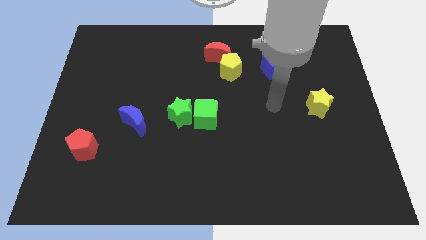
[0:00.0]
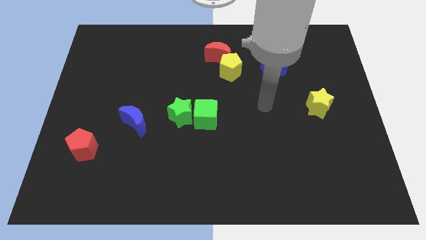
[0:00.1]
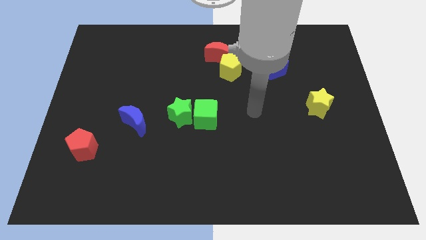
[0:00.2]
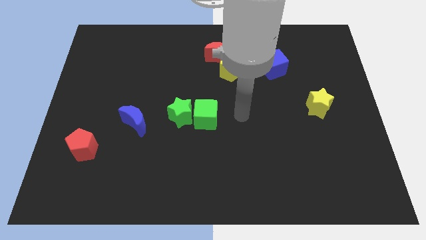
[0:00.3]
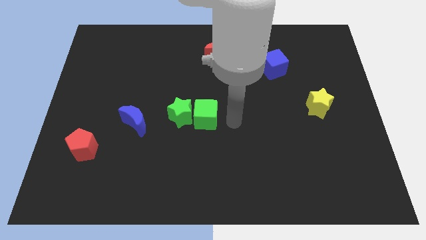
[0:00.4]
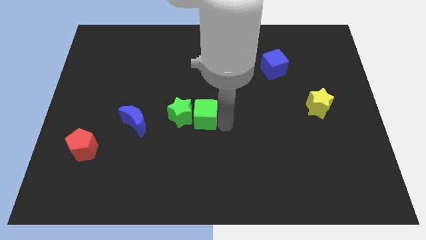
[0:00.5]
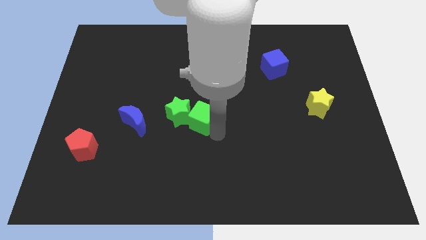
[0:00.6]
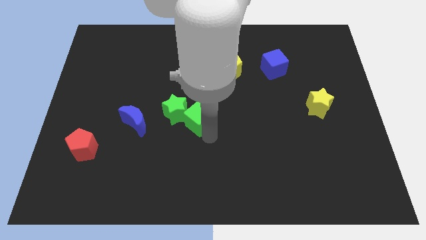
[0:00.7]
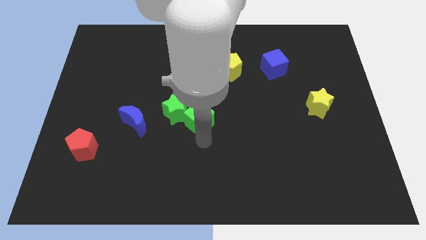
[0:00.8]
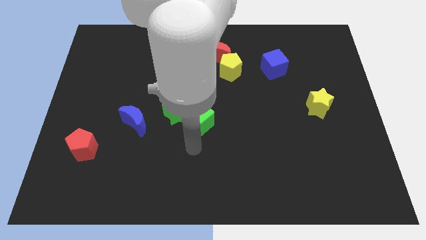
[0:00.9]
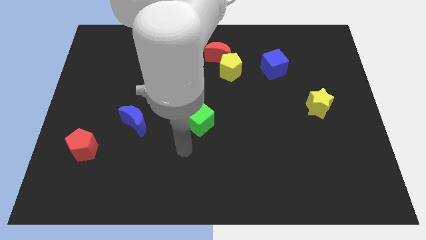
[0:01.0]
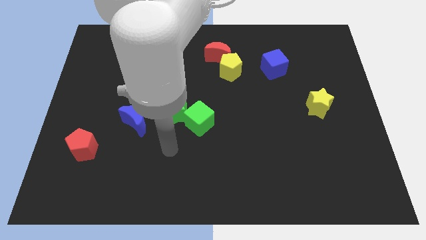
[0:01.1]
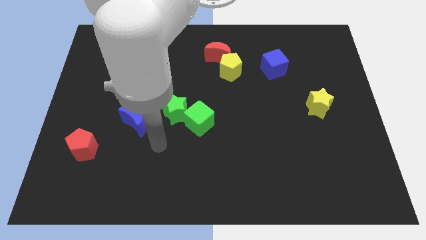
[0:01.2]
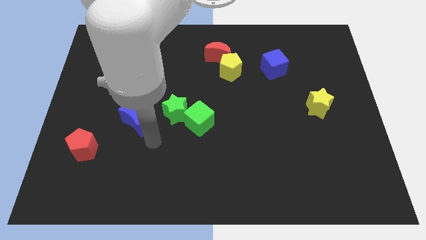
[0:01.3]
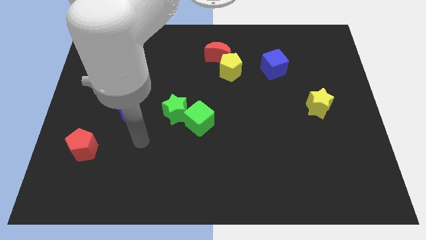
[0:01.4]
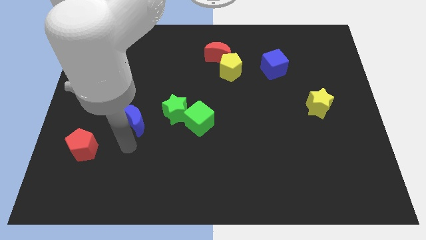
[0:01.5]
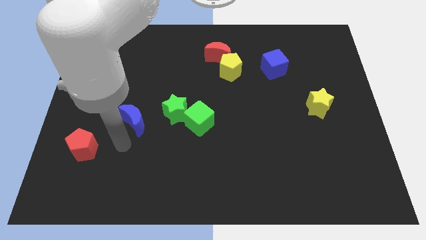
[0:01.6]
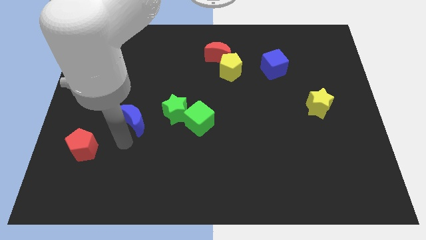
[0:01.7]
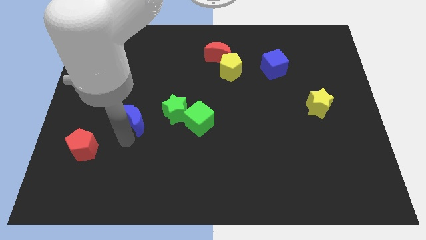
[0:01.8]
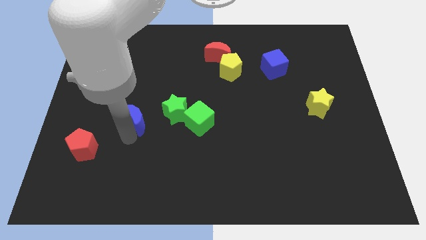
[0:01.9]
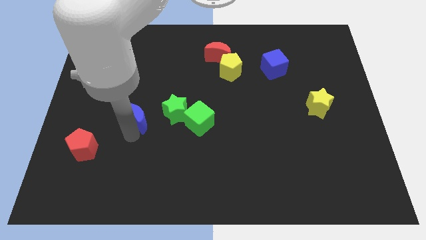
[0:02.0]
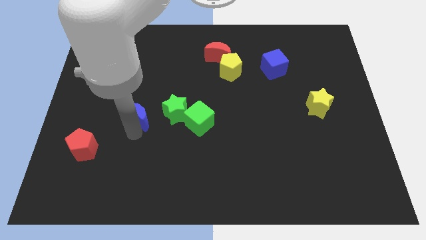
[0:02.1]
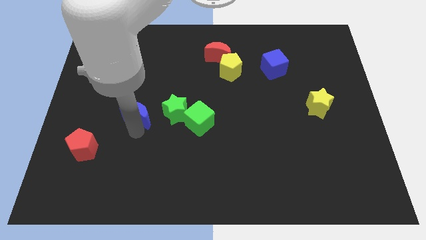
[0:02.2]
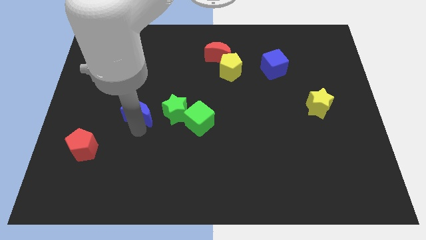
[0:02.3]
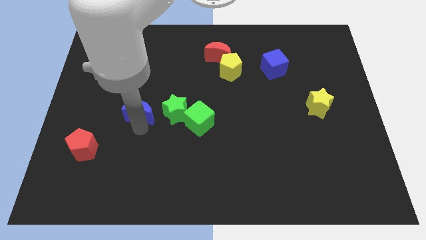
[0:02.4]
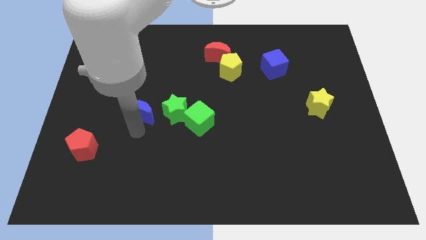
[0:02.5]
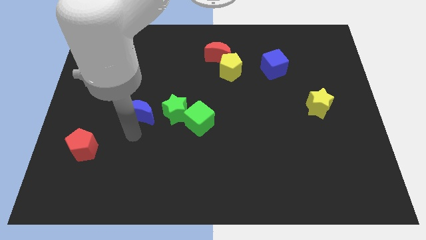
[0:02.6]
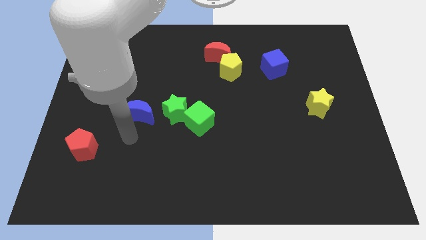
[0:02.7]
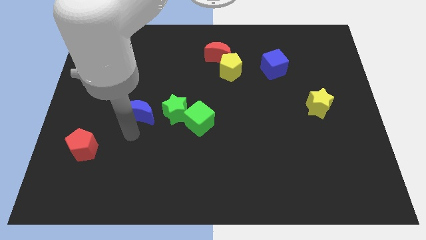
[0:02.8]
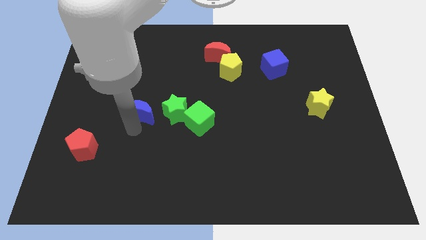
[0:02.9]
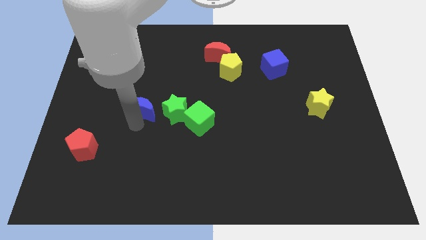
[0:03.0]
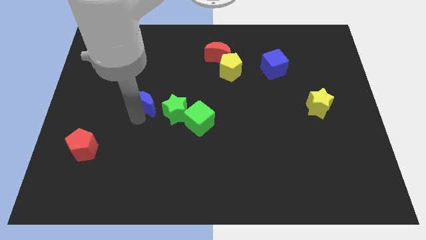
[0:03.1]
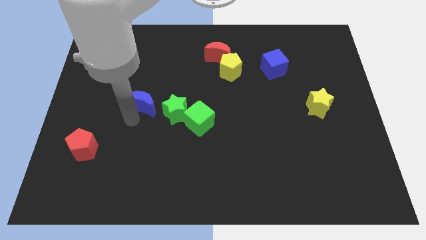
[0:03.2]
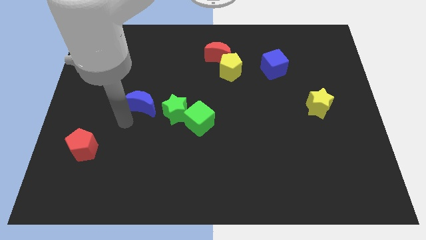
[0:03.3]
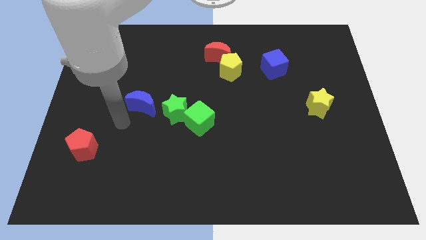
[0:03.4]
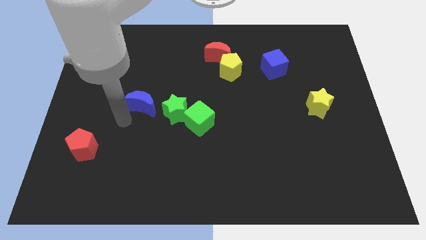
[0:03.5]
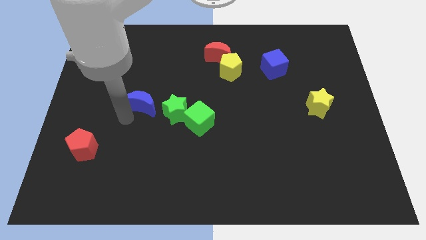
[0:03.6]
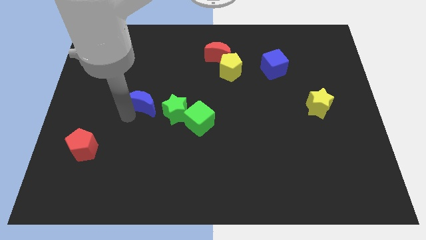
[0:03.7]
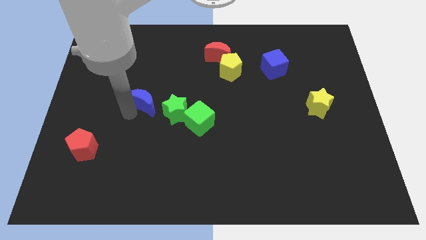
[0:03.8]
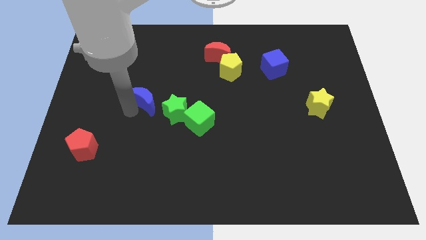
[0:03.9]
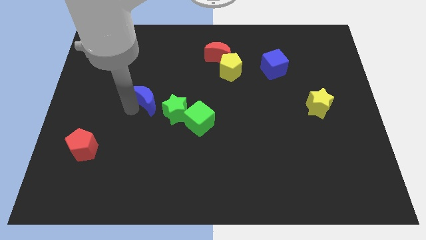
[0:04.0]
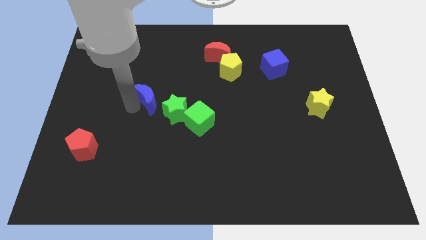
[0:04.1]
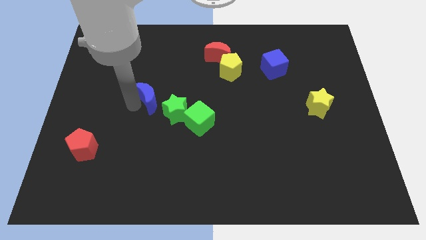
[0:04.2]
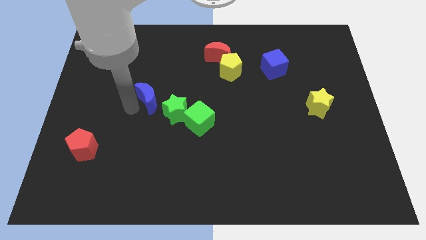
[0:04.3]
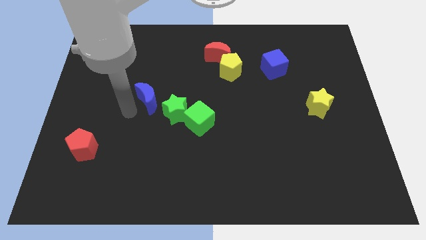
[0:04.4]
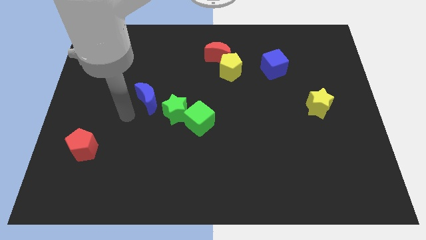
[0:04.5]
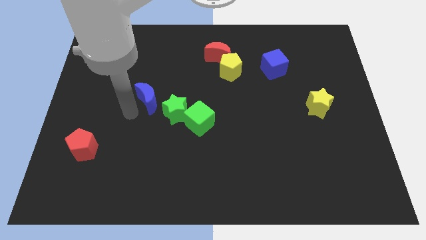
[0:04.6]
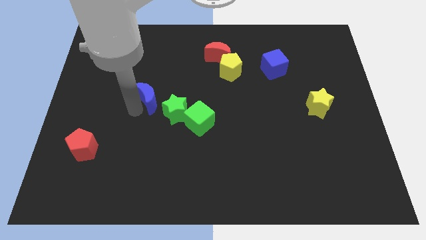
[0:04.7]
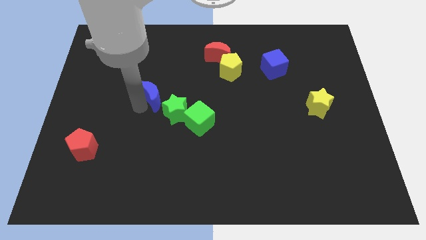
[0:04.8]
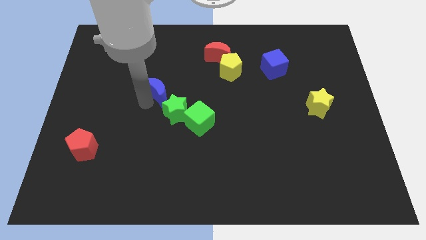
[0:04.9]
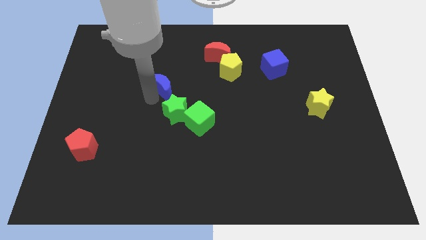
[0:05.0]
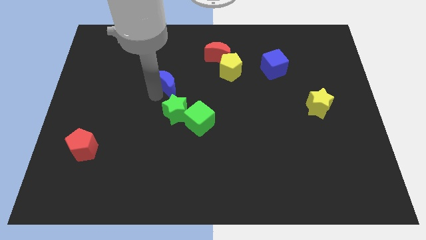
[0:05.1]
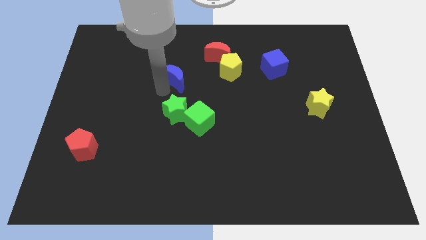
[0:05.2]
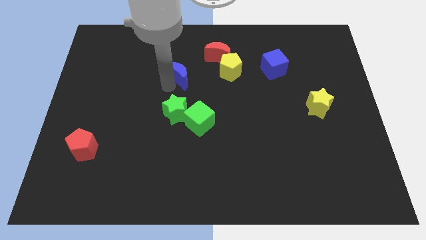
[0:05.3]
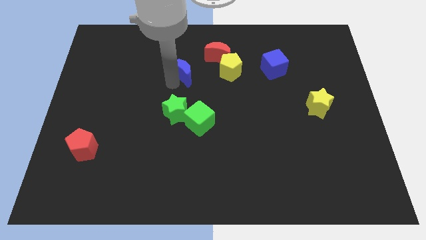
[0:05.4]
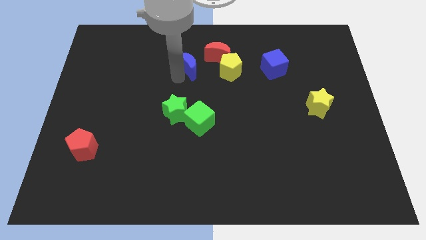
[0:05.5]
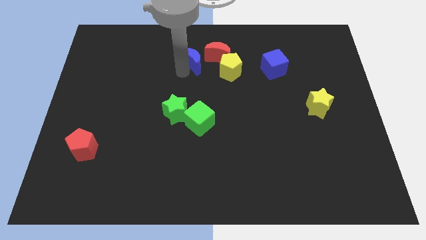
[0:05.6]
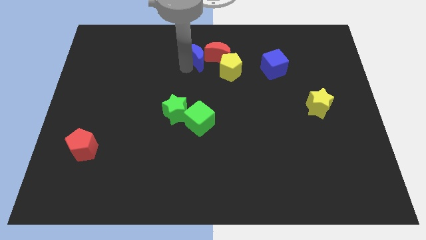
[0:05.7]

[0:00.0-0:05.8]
slide the blue moon close to the red moon

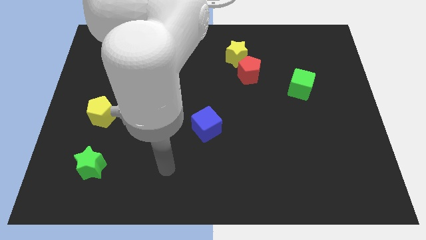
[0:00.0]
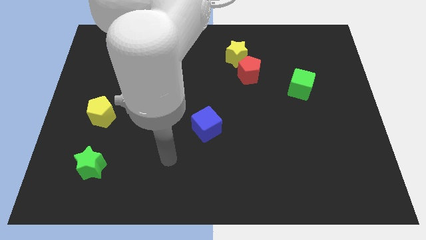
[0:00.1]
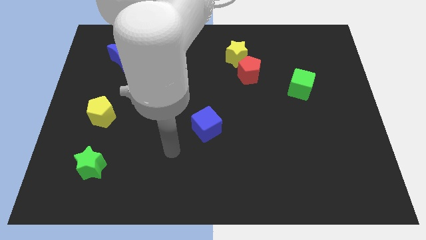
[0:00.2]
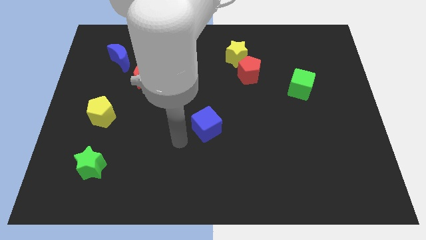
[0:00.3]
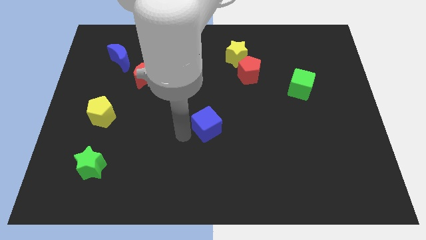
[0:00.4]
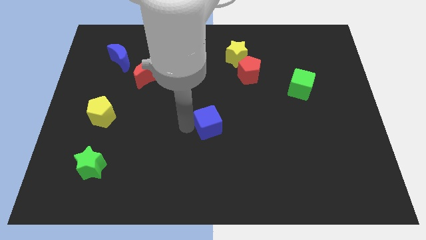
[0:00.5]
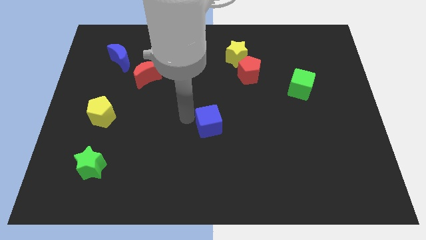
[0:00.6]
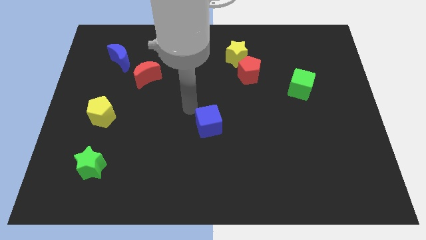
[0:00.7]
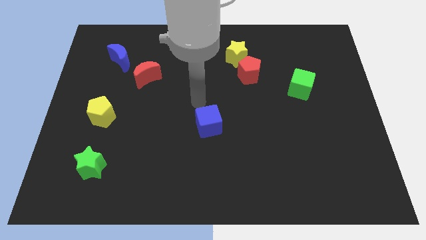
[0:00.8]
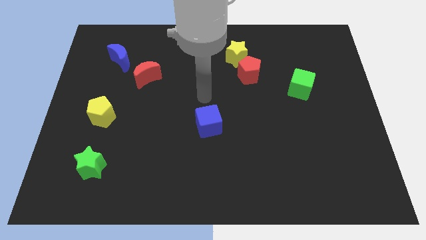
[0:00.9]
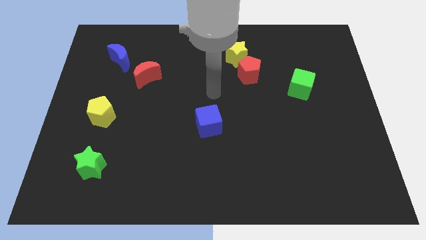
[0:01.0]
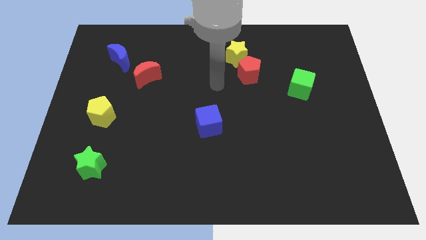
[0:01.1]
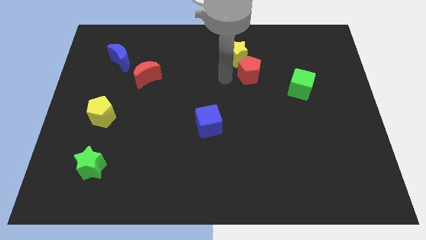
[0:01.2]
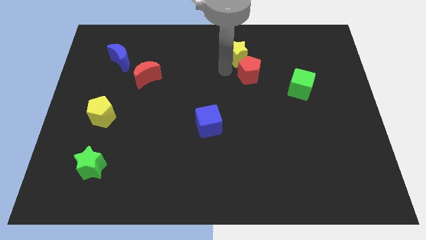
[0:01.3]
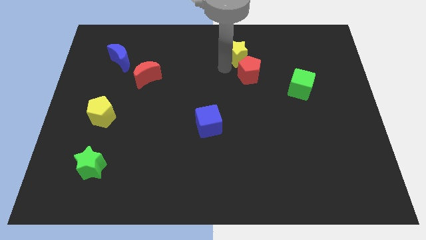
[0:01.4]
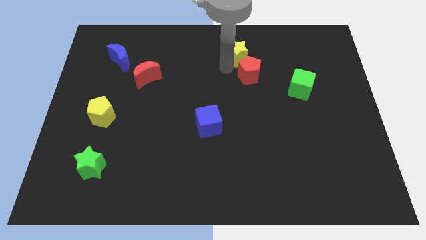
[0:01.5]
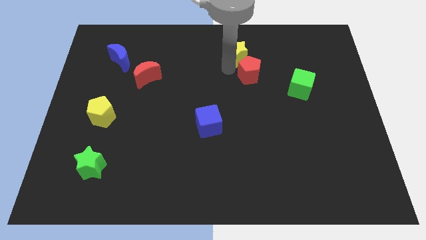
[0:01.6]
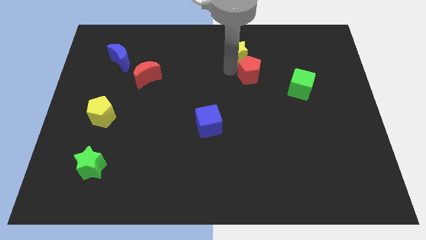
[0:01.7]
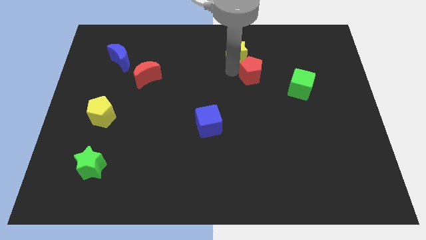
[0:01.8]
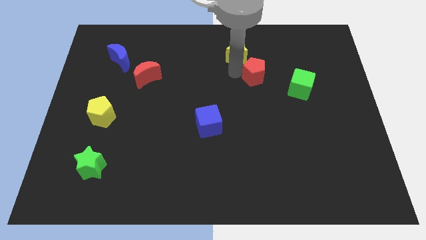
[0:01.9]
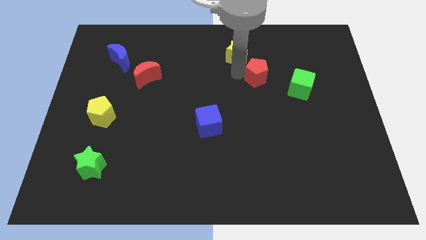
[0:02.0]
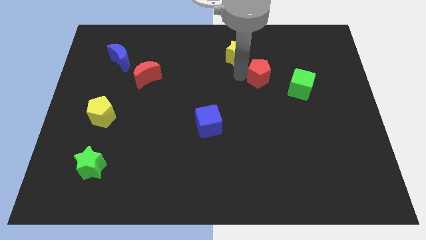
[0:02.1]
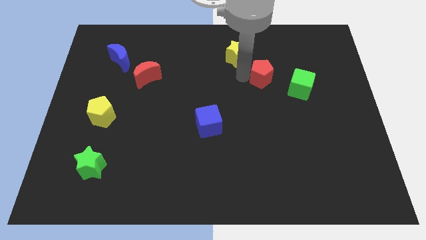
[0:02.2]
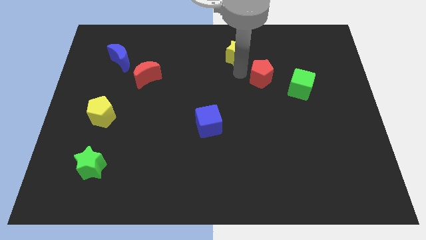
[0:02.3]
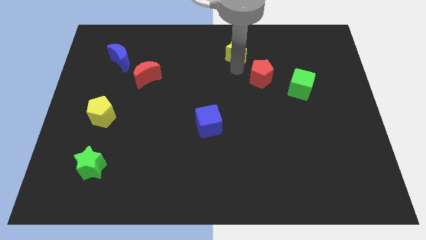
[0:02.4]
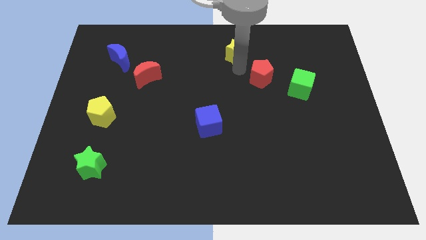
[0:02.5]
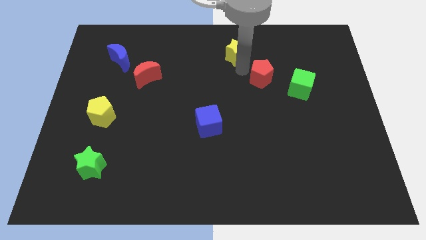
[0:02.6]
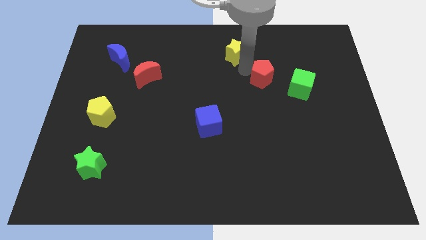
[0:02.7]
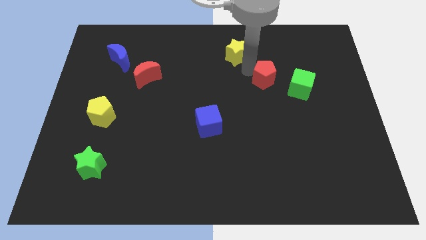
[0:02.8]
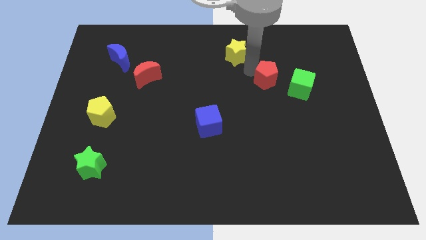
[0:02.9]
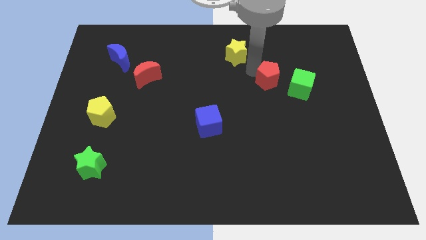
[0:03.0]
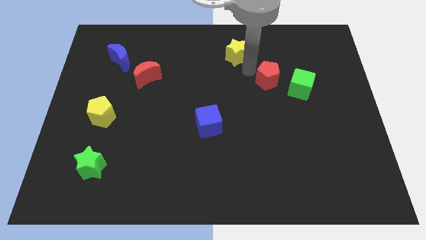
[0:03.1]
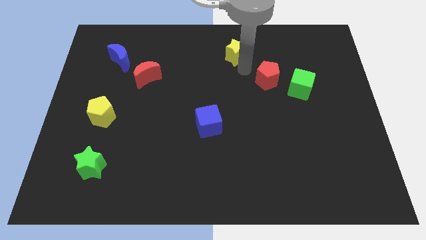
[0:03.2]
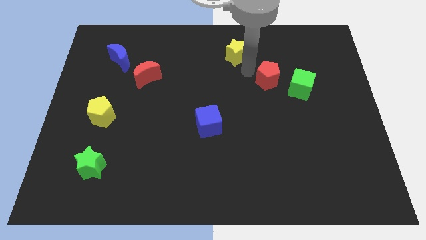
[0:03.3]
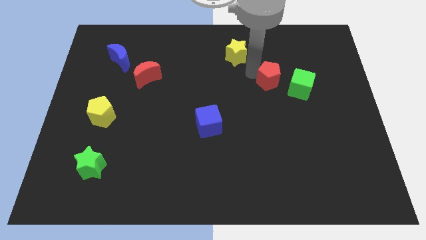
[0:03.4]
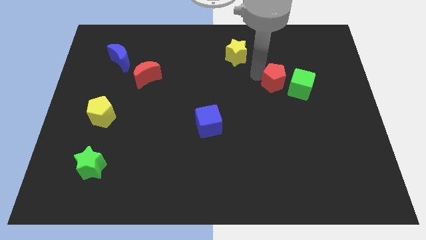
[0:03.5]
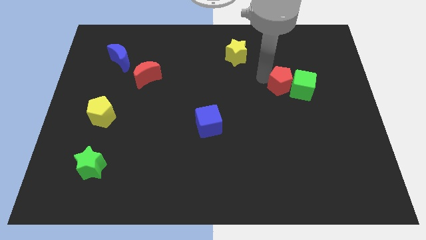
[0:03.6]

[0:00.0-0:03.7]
move the red pentagon close to the green cube
